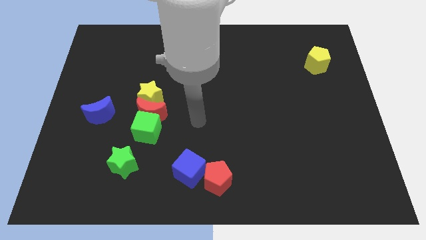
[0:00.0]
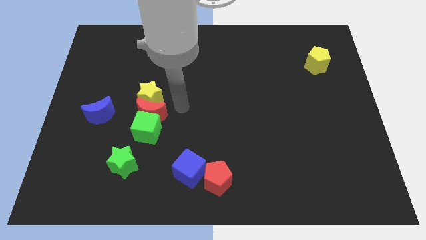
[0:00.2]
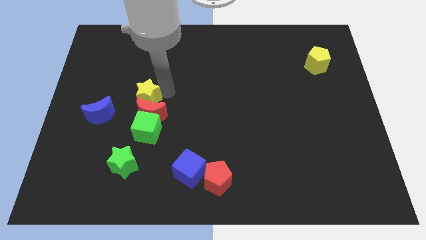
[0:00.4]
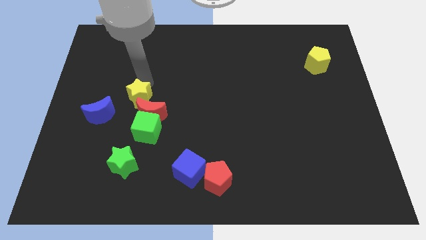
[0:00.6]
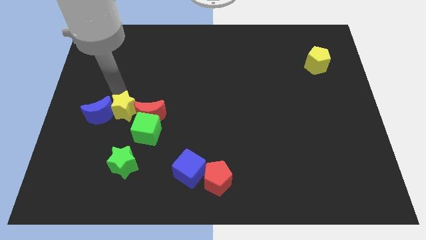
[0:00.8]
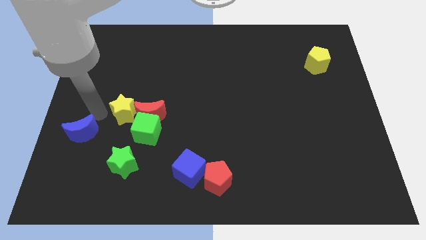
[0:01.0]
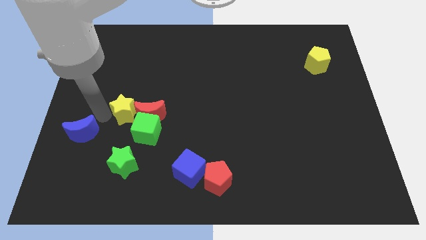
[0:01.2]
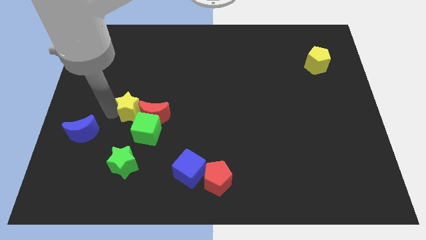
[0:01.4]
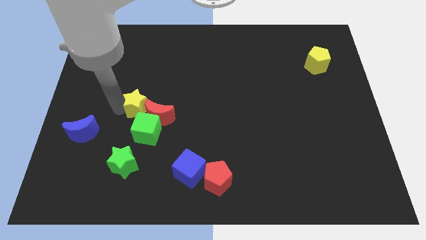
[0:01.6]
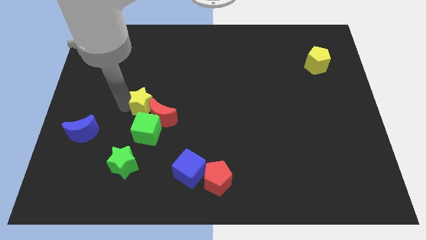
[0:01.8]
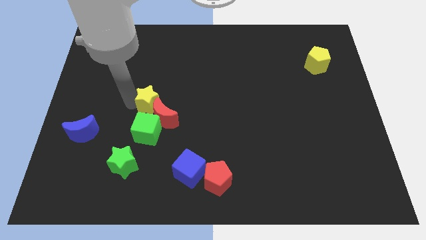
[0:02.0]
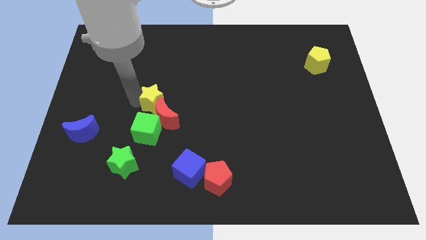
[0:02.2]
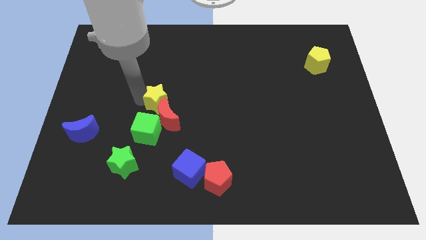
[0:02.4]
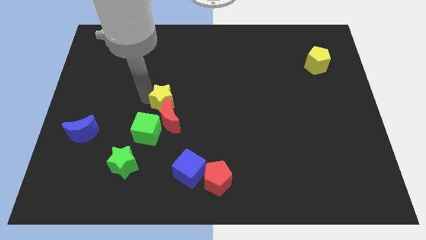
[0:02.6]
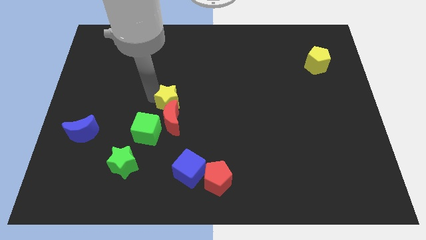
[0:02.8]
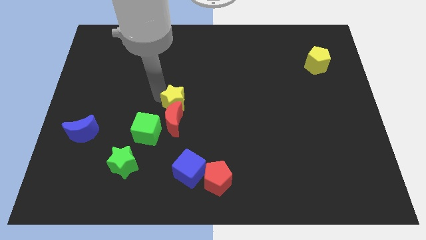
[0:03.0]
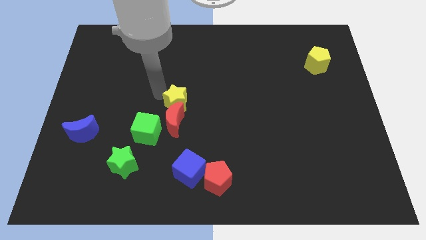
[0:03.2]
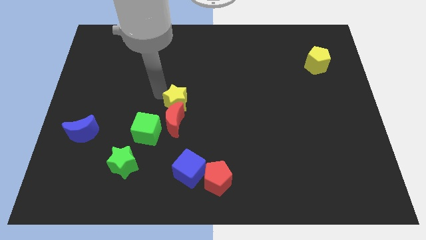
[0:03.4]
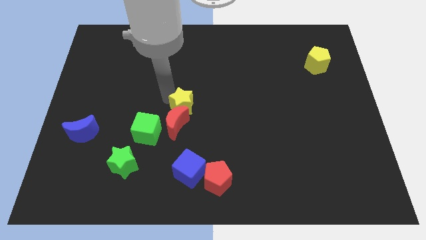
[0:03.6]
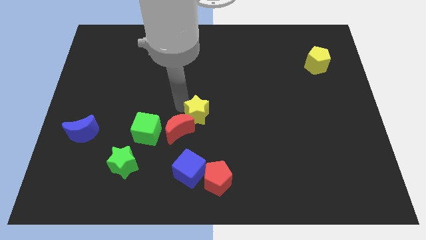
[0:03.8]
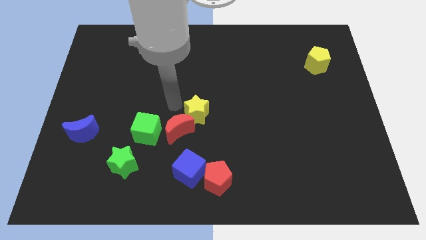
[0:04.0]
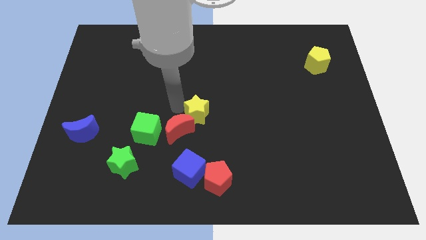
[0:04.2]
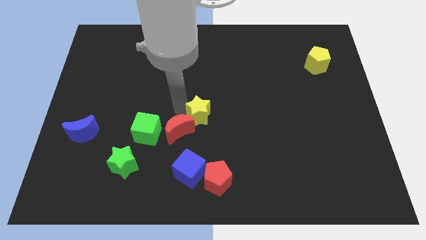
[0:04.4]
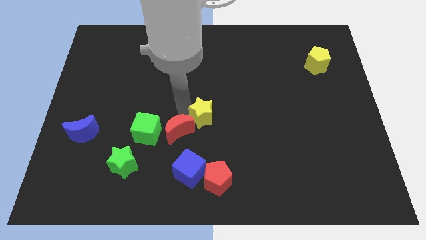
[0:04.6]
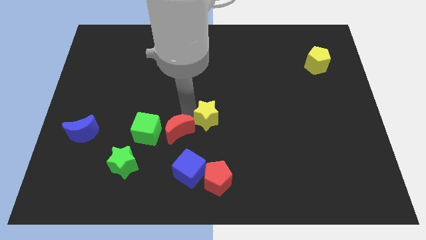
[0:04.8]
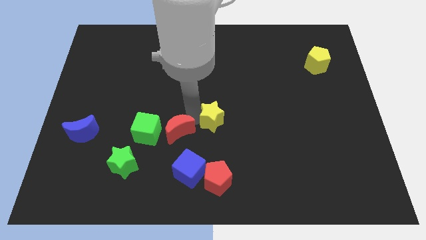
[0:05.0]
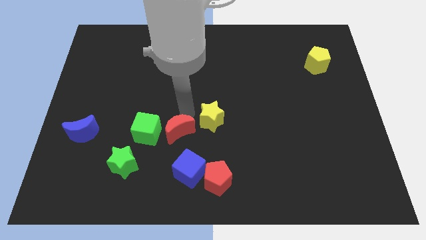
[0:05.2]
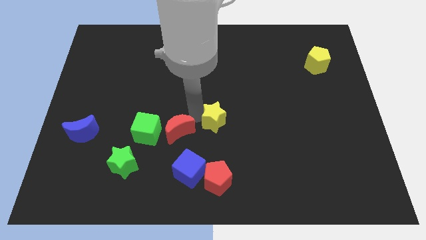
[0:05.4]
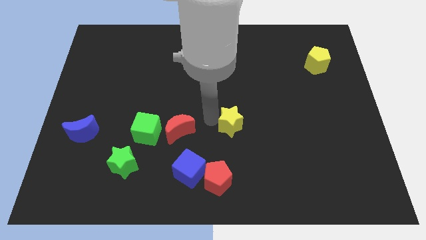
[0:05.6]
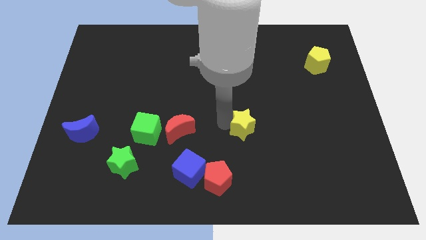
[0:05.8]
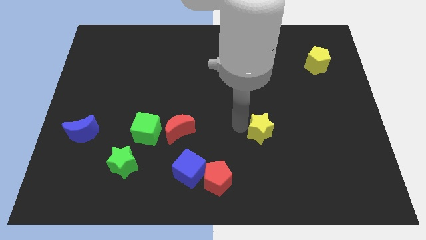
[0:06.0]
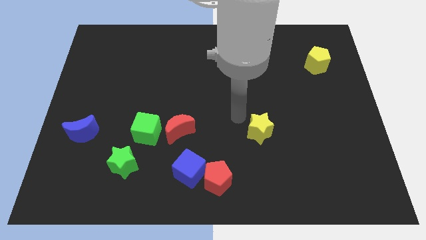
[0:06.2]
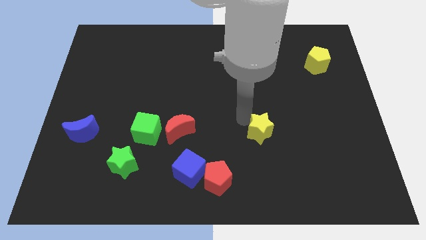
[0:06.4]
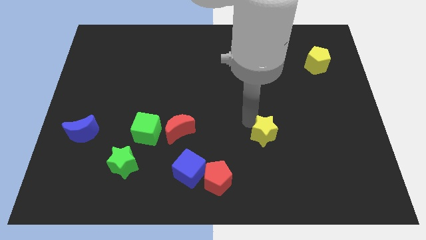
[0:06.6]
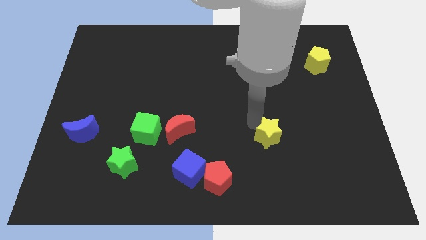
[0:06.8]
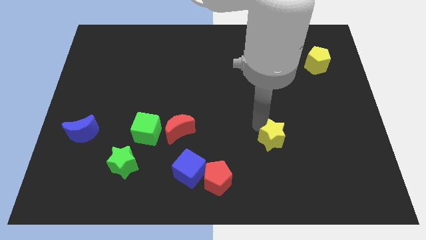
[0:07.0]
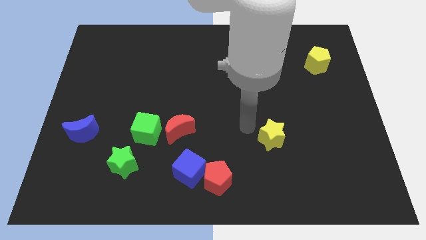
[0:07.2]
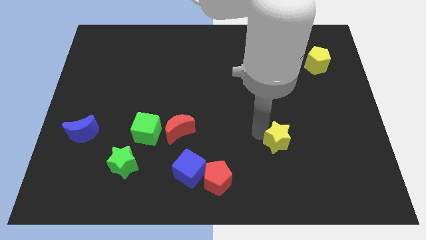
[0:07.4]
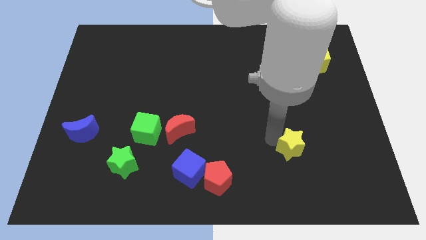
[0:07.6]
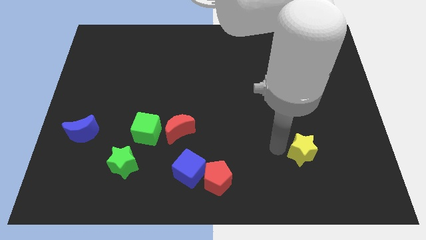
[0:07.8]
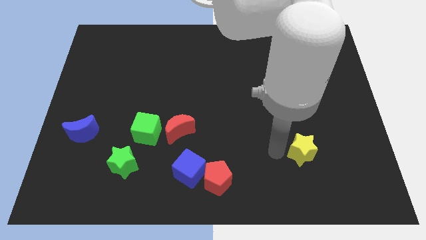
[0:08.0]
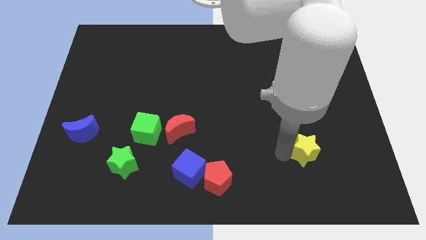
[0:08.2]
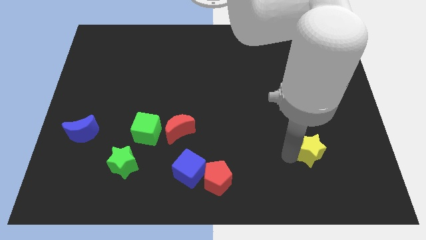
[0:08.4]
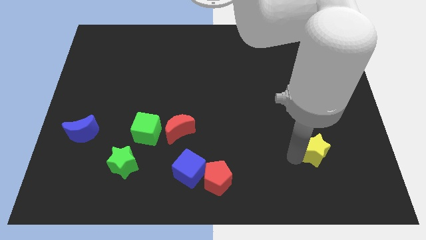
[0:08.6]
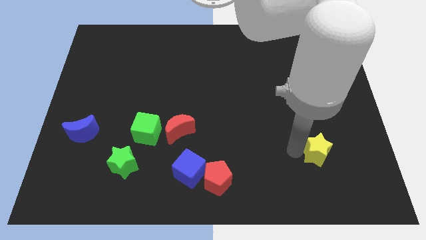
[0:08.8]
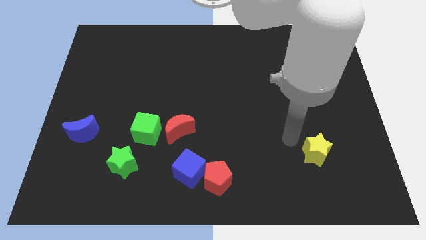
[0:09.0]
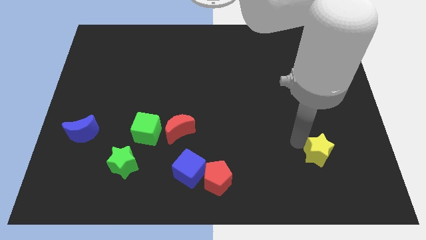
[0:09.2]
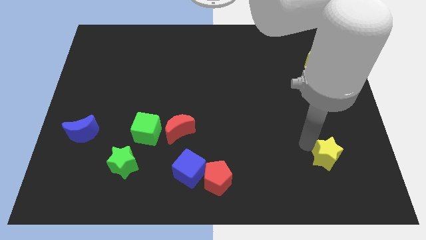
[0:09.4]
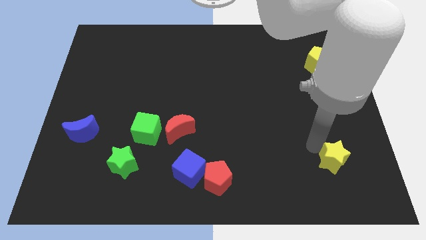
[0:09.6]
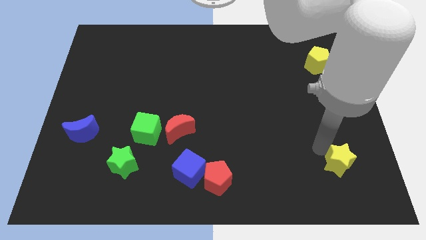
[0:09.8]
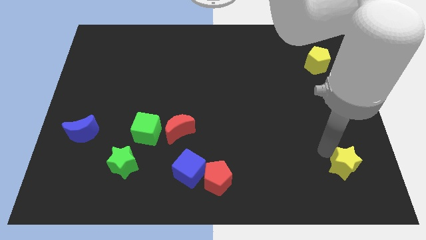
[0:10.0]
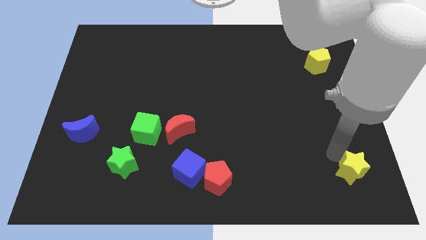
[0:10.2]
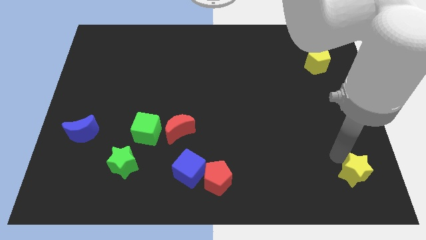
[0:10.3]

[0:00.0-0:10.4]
push the yellow star to the bottom right corner

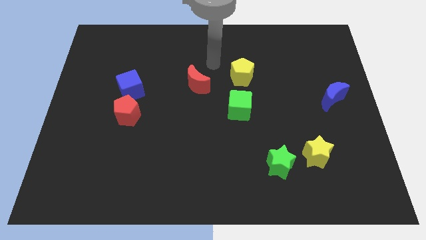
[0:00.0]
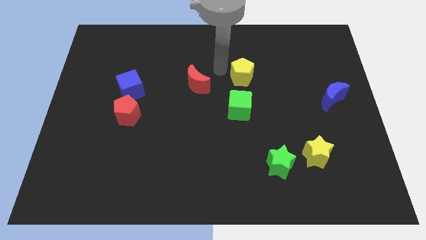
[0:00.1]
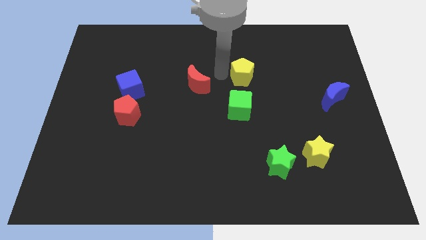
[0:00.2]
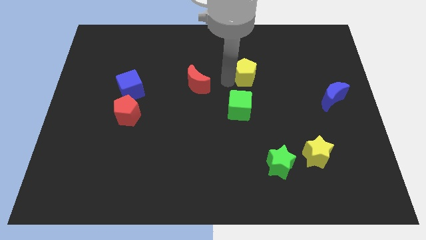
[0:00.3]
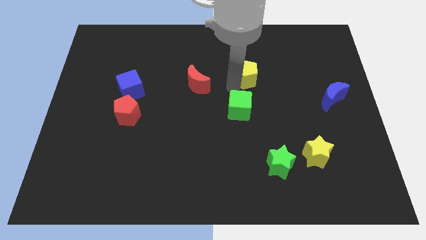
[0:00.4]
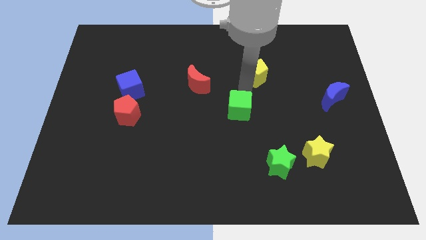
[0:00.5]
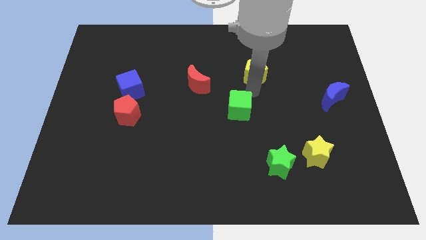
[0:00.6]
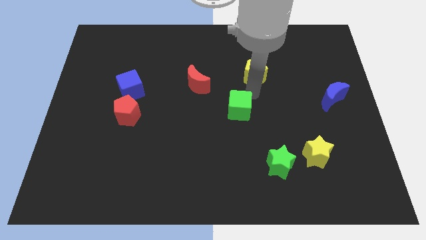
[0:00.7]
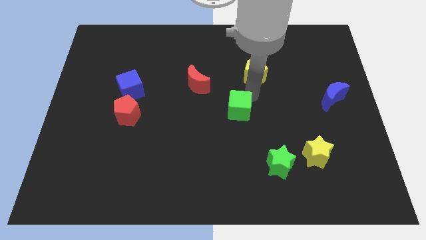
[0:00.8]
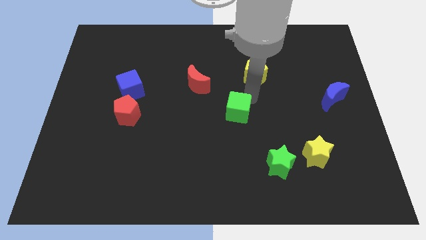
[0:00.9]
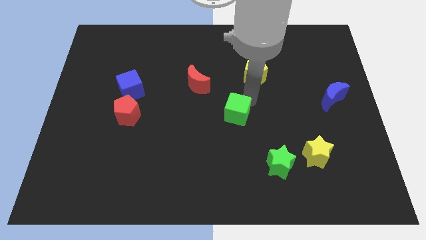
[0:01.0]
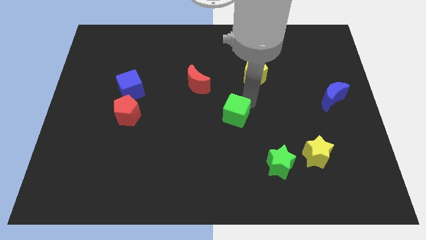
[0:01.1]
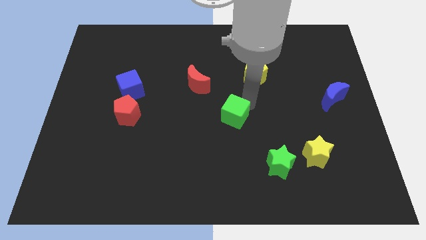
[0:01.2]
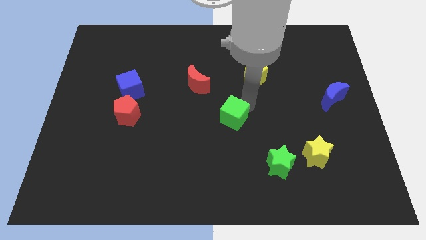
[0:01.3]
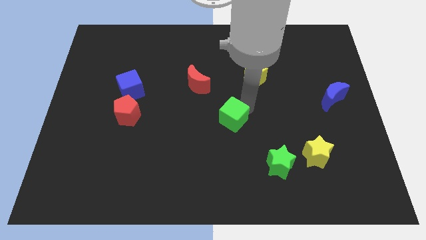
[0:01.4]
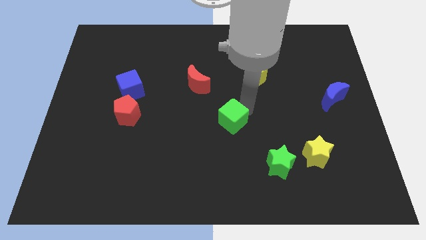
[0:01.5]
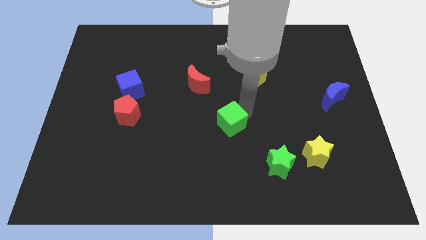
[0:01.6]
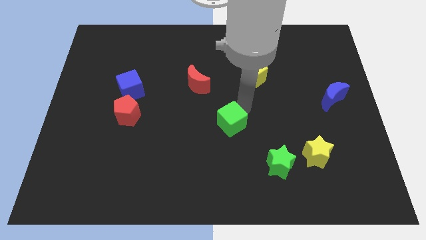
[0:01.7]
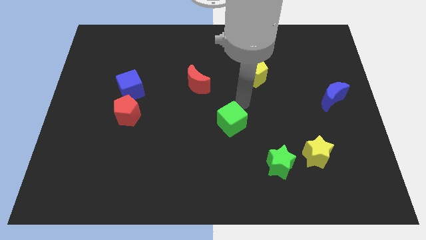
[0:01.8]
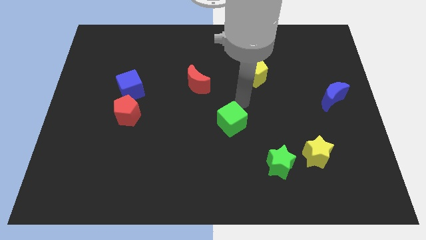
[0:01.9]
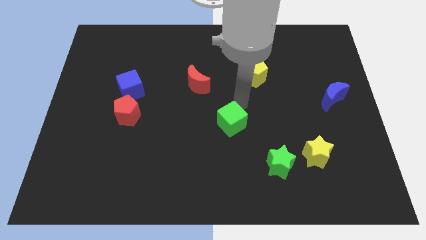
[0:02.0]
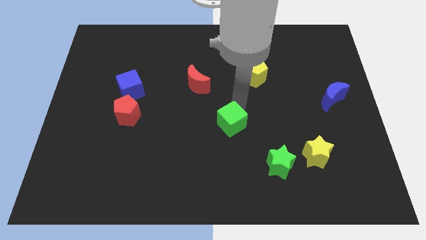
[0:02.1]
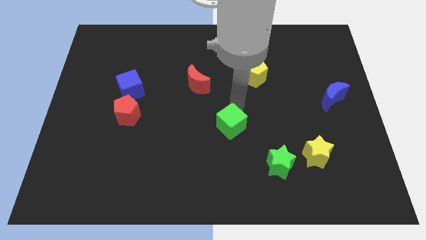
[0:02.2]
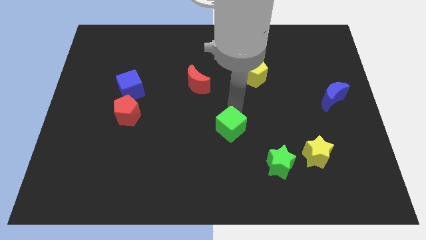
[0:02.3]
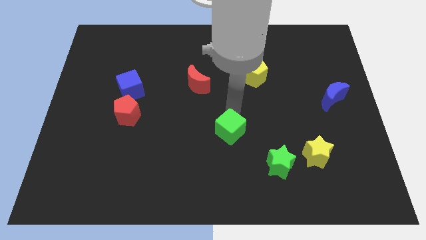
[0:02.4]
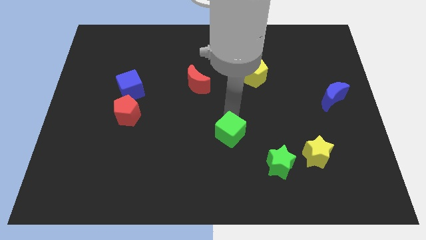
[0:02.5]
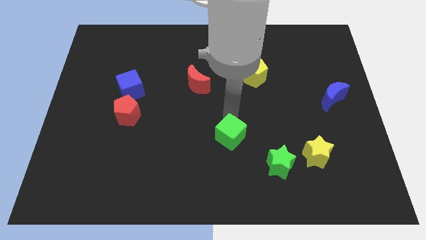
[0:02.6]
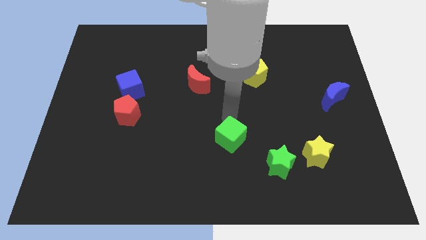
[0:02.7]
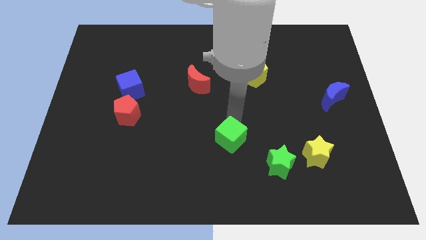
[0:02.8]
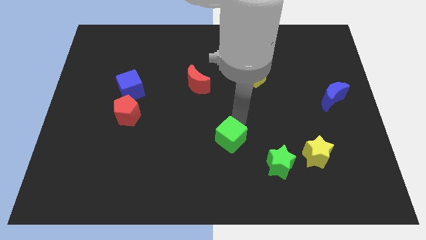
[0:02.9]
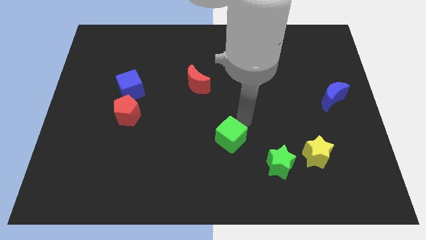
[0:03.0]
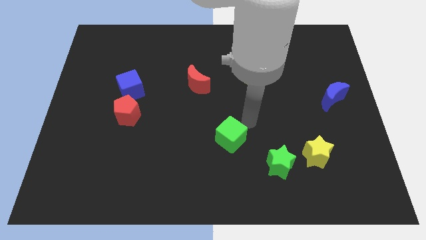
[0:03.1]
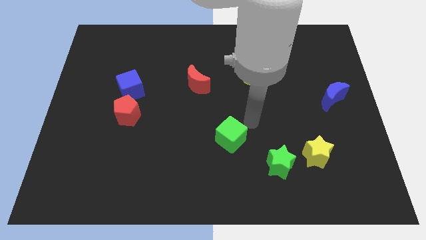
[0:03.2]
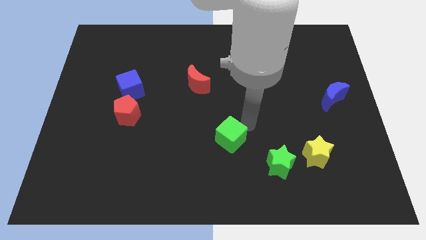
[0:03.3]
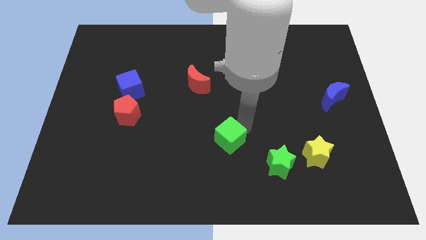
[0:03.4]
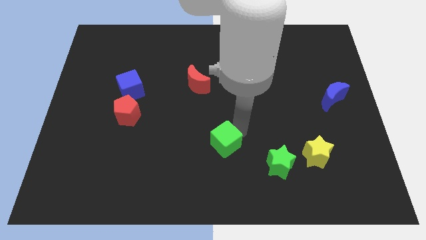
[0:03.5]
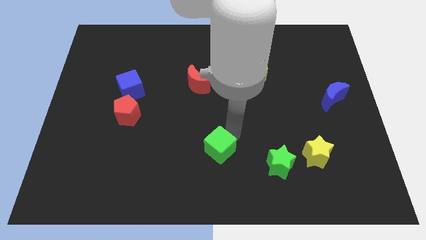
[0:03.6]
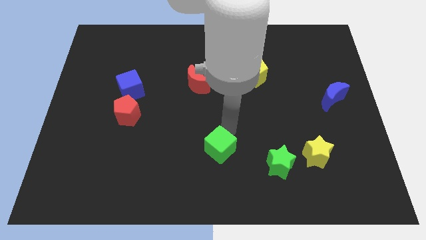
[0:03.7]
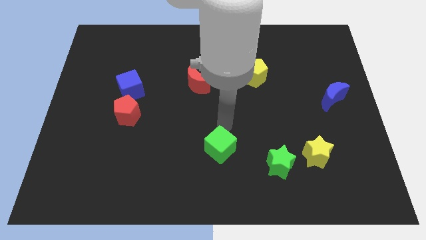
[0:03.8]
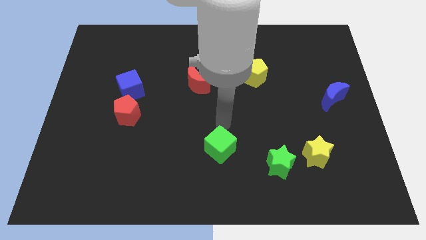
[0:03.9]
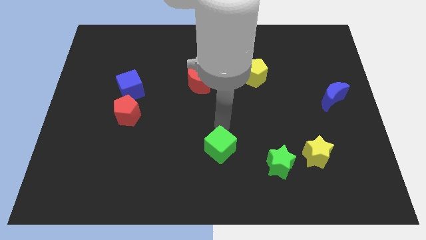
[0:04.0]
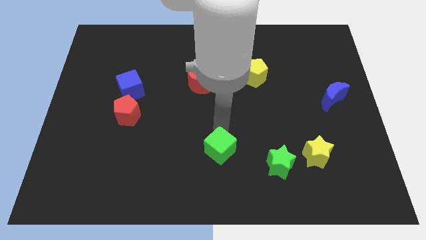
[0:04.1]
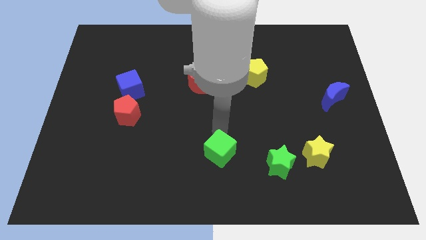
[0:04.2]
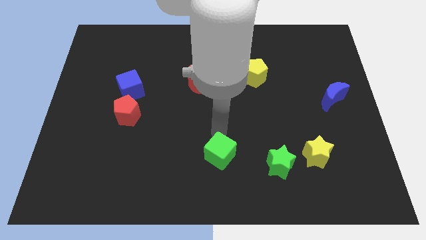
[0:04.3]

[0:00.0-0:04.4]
slide the green cube to the bottom side
